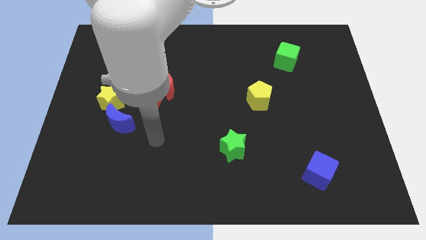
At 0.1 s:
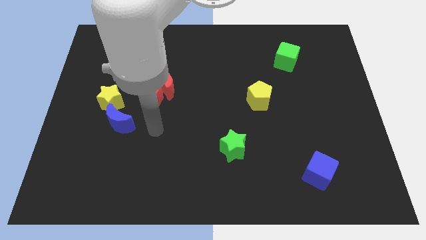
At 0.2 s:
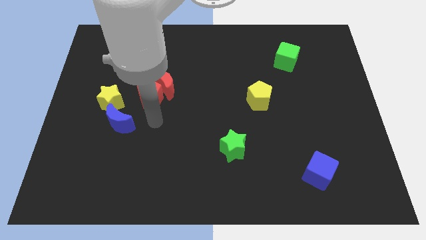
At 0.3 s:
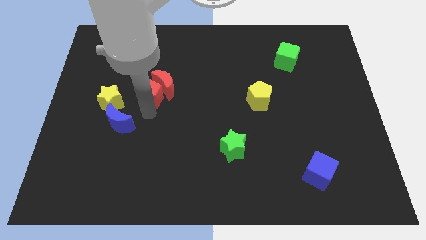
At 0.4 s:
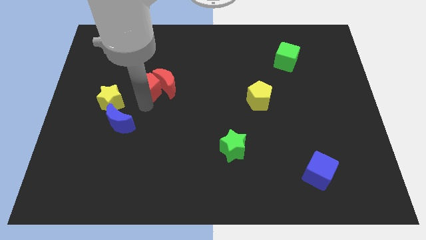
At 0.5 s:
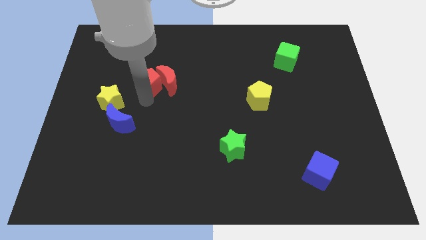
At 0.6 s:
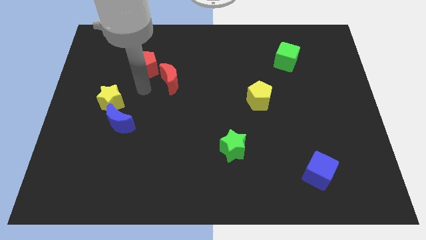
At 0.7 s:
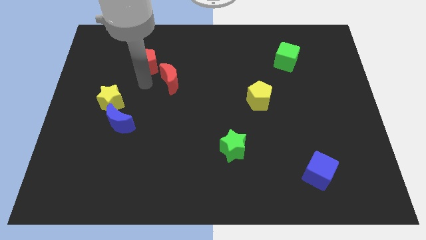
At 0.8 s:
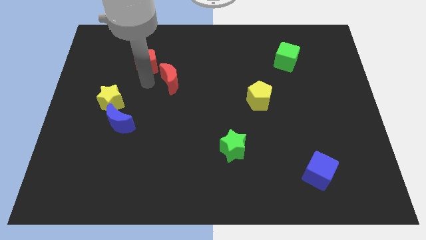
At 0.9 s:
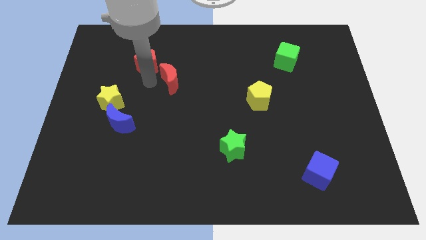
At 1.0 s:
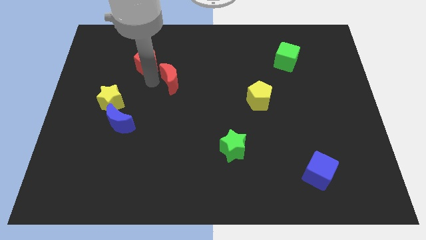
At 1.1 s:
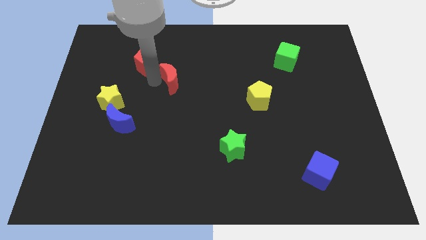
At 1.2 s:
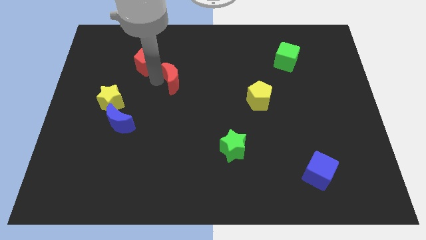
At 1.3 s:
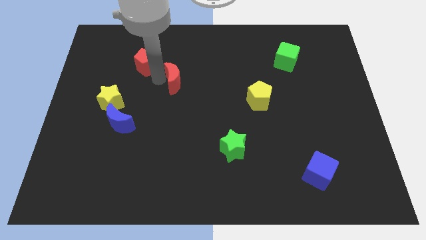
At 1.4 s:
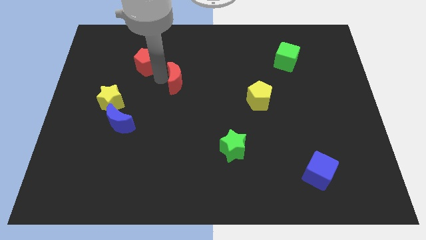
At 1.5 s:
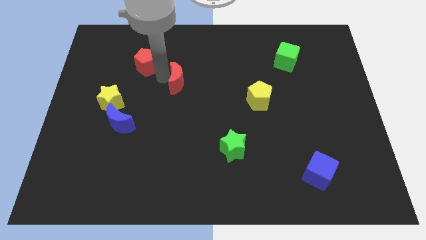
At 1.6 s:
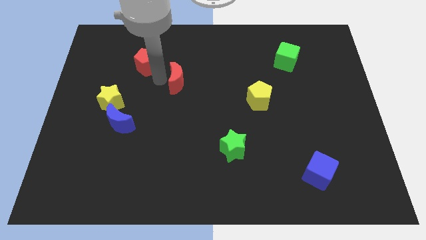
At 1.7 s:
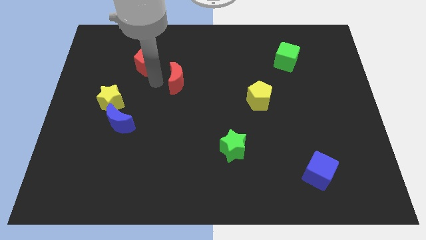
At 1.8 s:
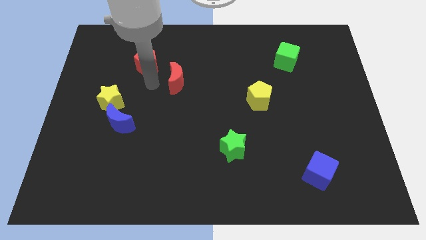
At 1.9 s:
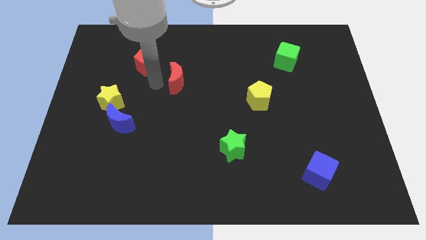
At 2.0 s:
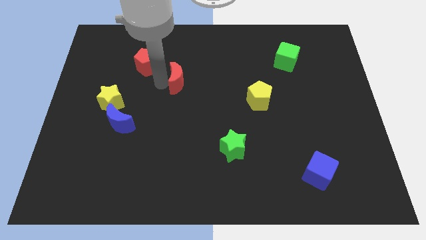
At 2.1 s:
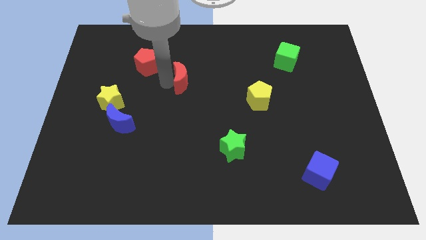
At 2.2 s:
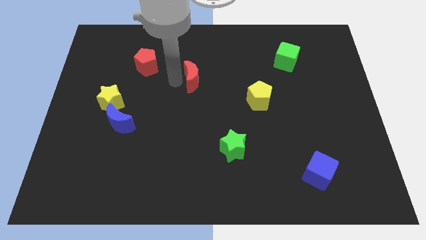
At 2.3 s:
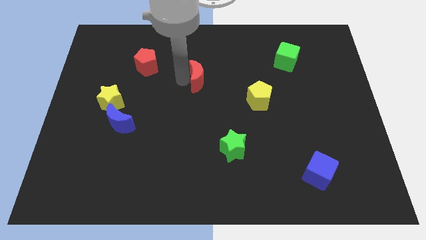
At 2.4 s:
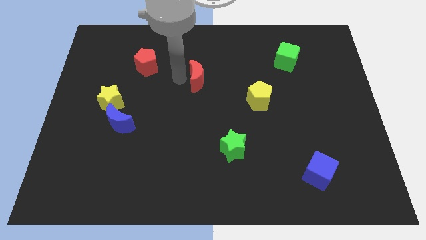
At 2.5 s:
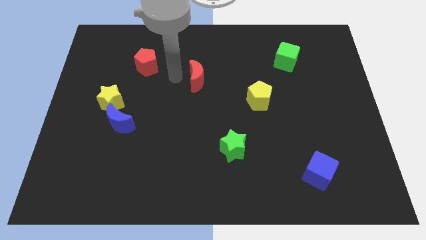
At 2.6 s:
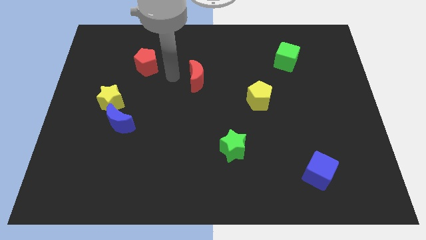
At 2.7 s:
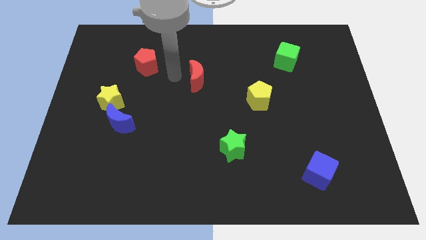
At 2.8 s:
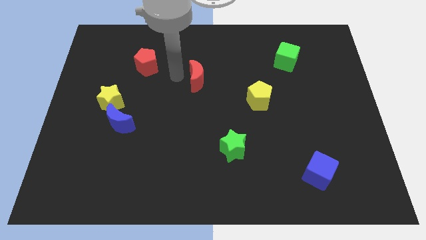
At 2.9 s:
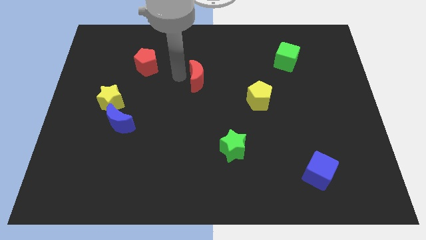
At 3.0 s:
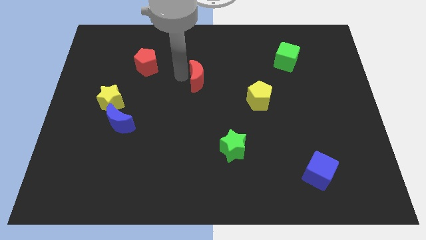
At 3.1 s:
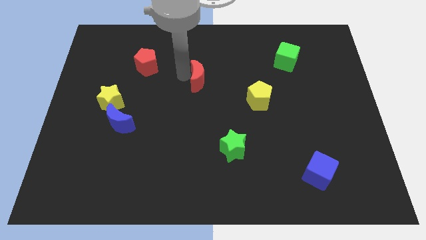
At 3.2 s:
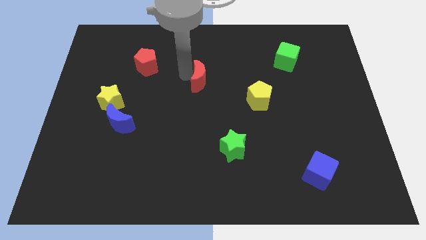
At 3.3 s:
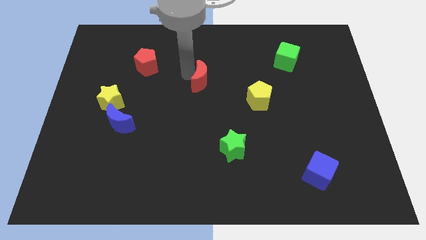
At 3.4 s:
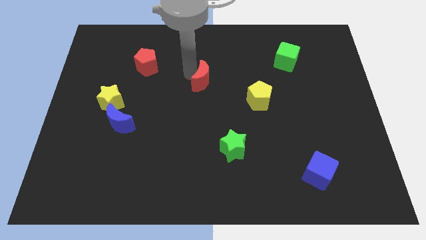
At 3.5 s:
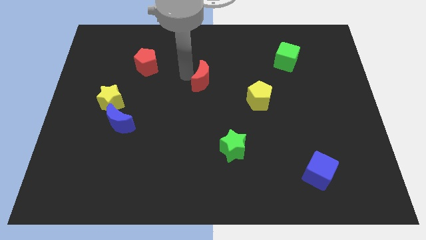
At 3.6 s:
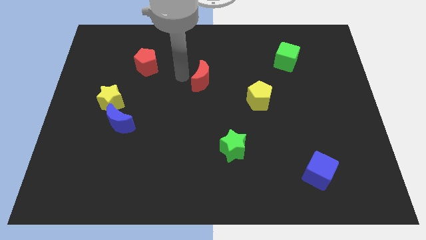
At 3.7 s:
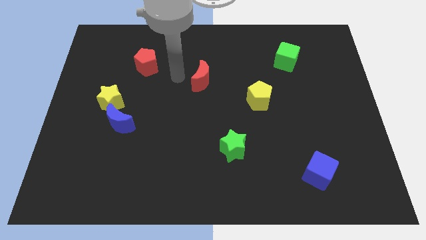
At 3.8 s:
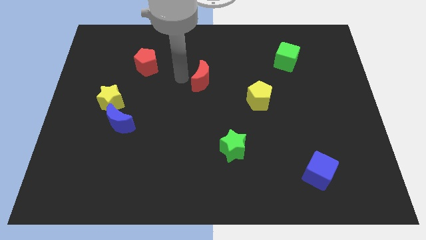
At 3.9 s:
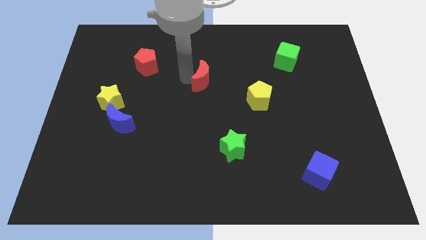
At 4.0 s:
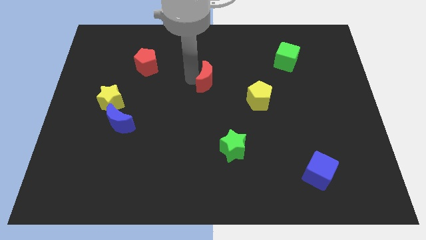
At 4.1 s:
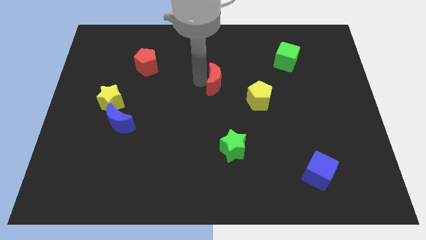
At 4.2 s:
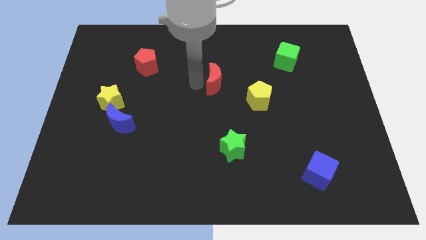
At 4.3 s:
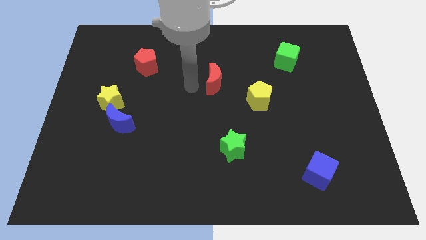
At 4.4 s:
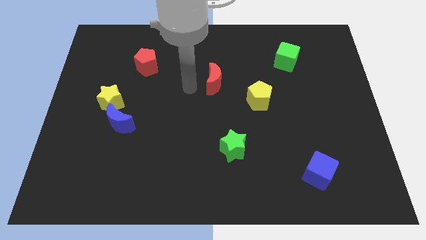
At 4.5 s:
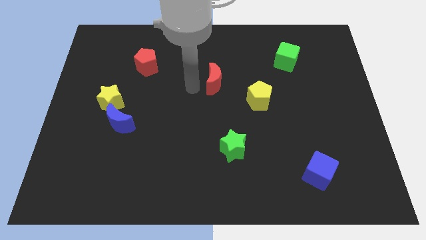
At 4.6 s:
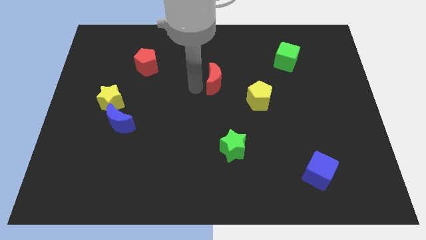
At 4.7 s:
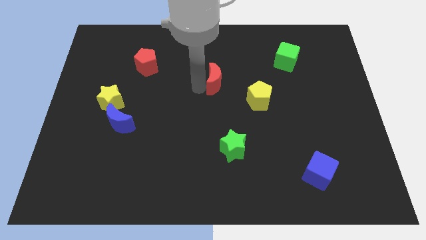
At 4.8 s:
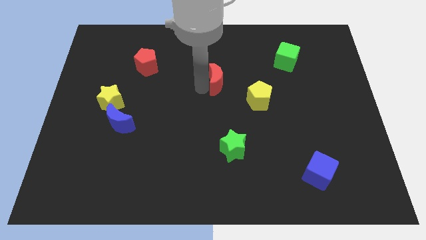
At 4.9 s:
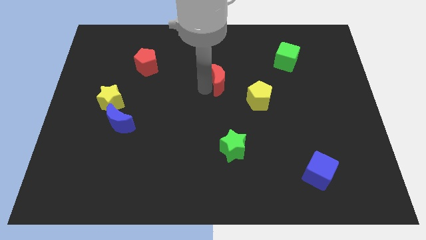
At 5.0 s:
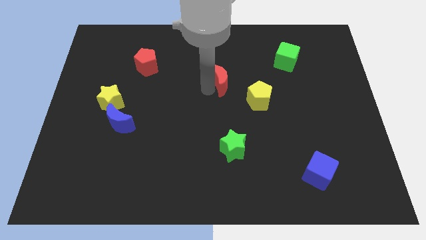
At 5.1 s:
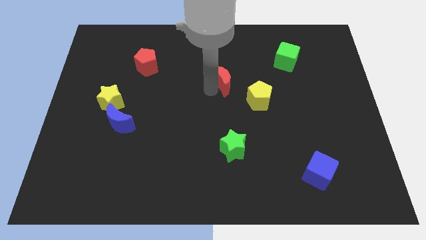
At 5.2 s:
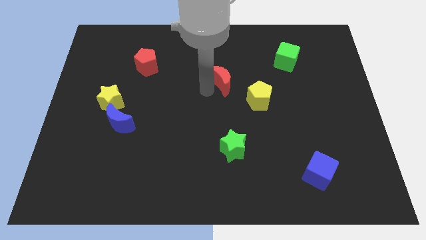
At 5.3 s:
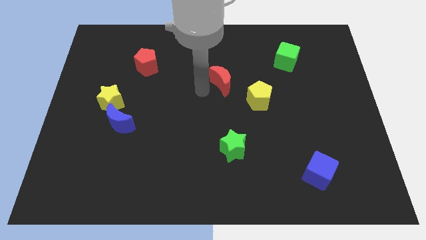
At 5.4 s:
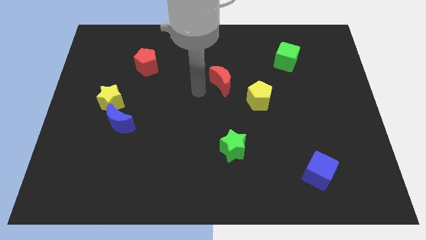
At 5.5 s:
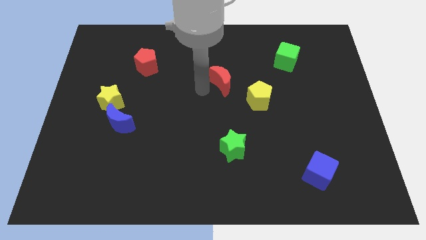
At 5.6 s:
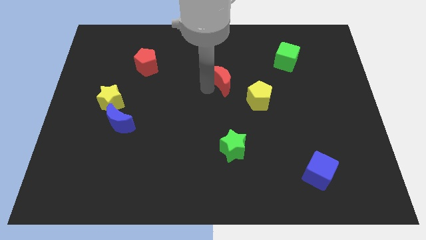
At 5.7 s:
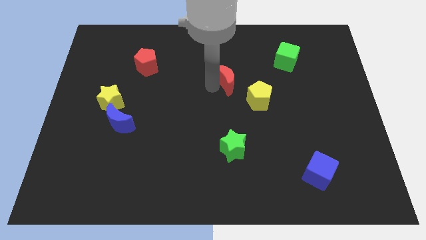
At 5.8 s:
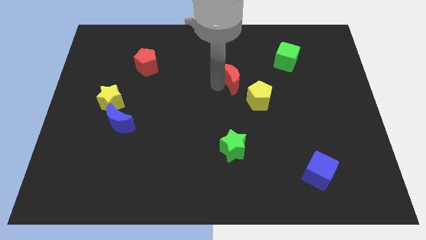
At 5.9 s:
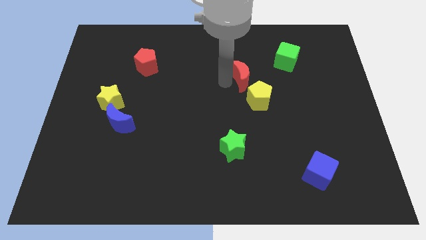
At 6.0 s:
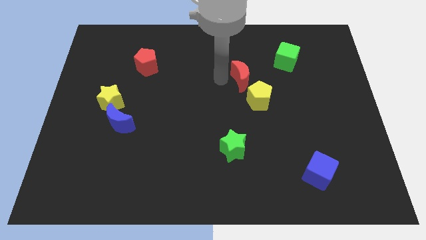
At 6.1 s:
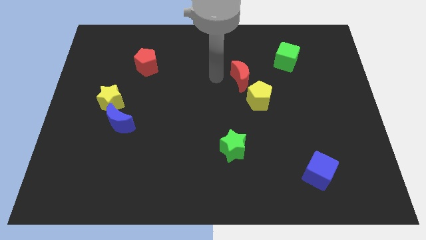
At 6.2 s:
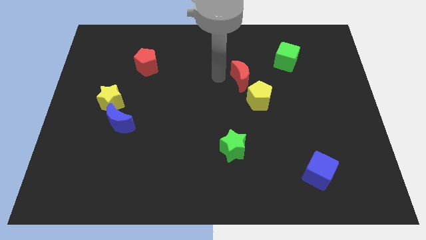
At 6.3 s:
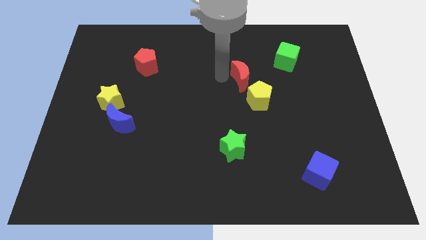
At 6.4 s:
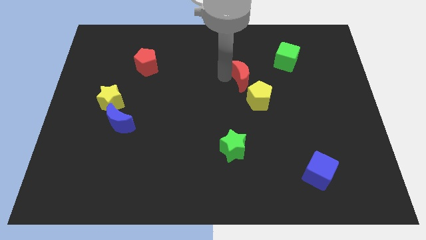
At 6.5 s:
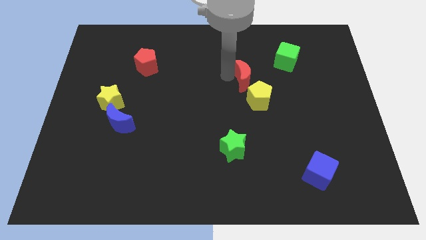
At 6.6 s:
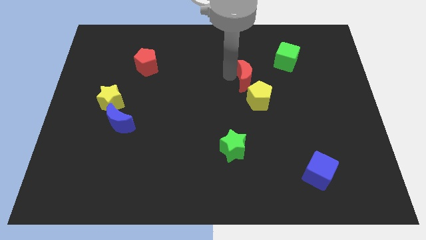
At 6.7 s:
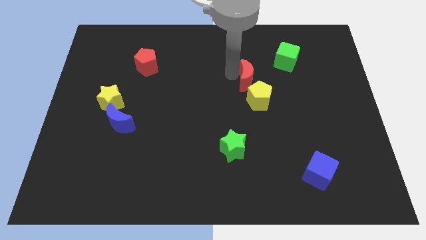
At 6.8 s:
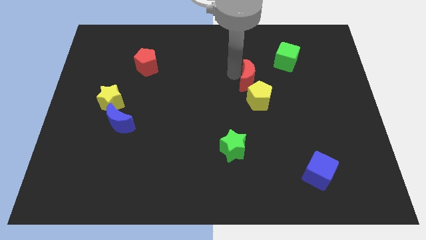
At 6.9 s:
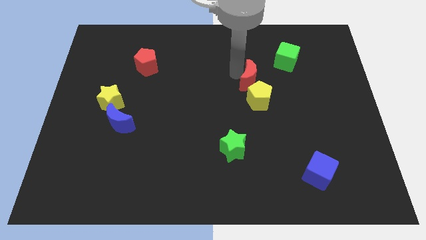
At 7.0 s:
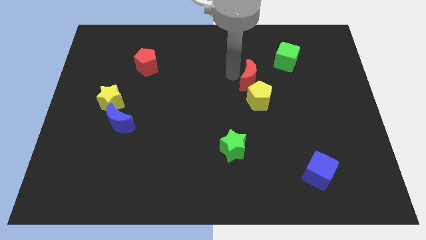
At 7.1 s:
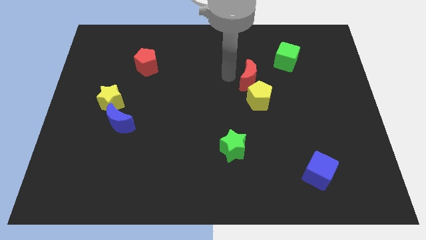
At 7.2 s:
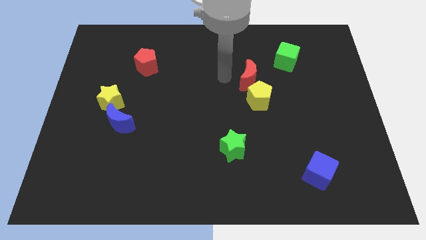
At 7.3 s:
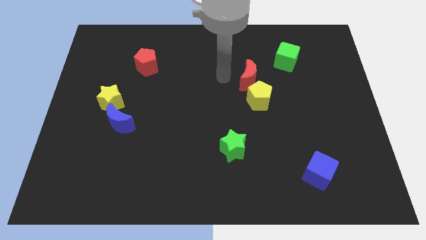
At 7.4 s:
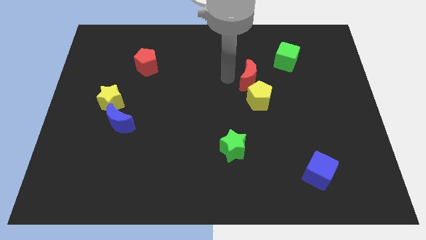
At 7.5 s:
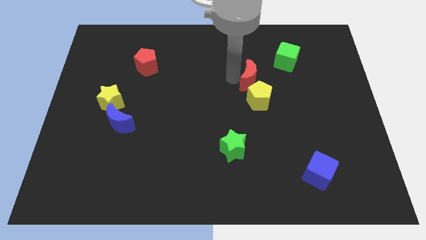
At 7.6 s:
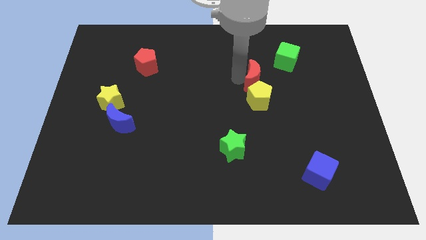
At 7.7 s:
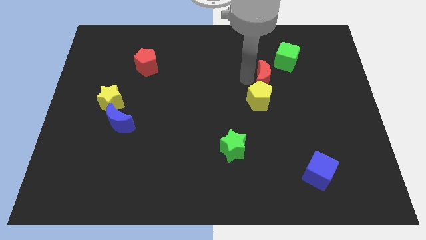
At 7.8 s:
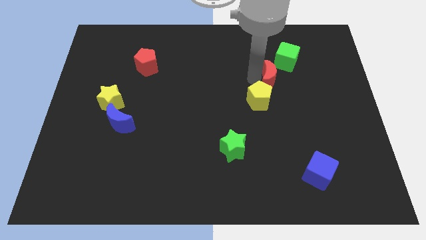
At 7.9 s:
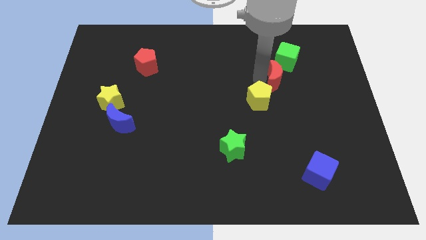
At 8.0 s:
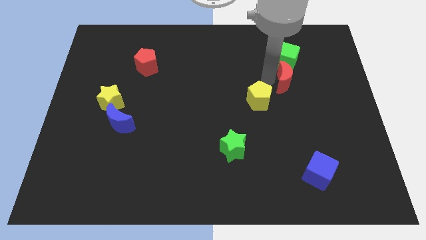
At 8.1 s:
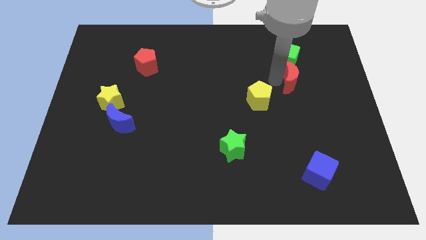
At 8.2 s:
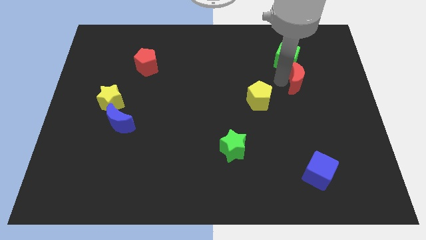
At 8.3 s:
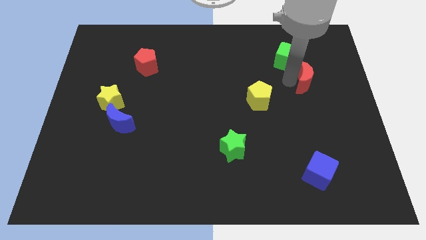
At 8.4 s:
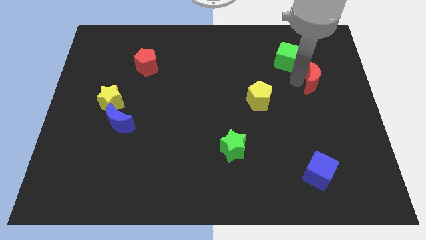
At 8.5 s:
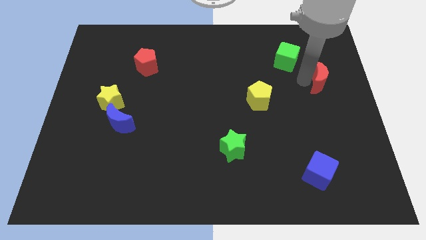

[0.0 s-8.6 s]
move the red moon to the center right
